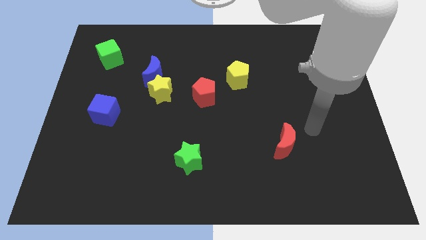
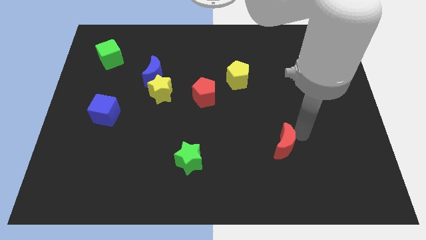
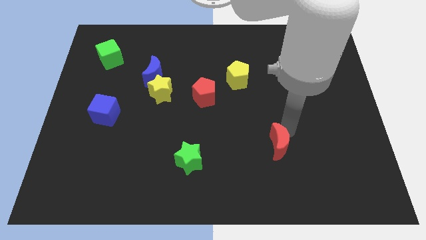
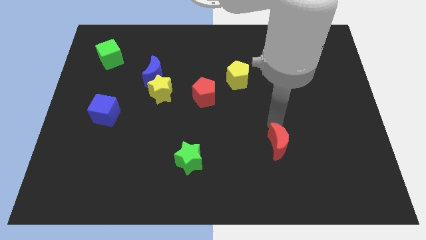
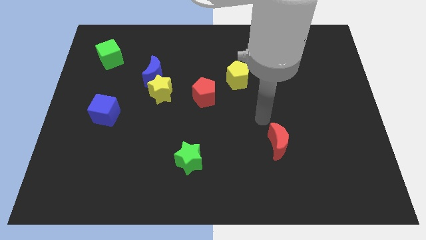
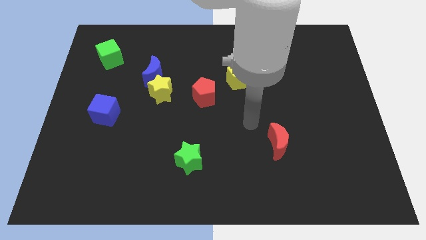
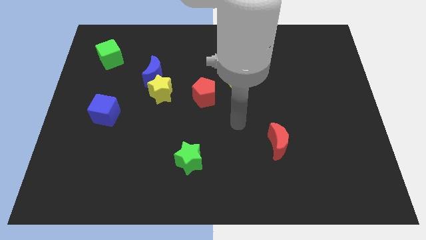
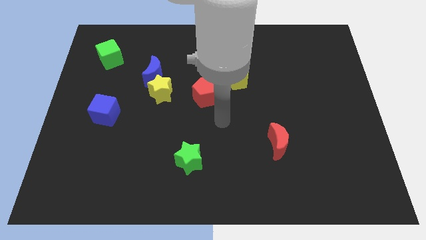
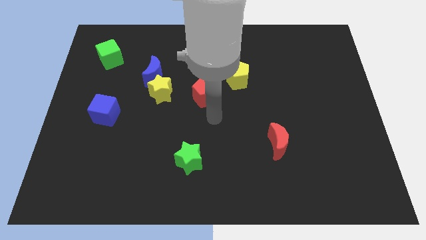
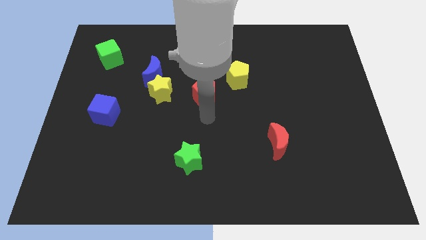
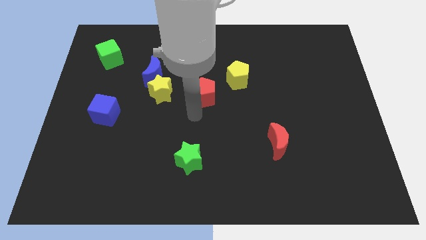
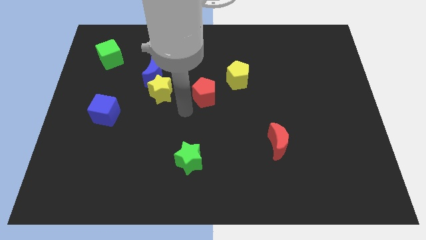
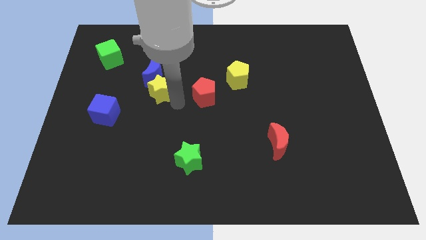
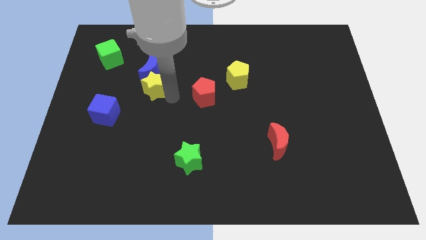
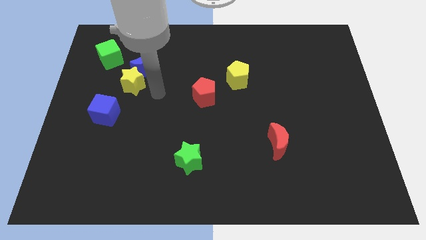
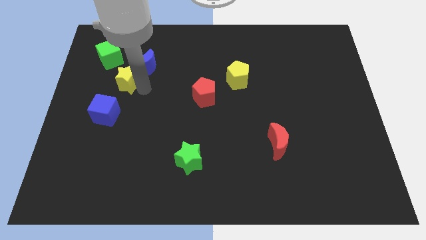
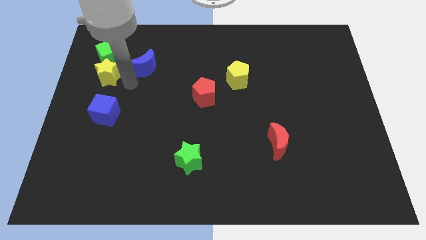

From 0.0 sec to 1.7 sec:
separate the blue moon from the yellow star

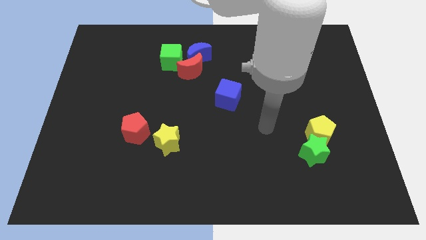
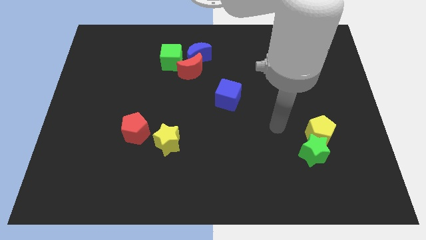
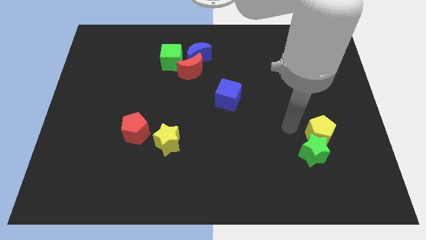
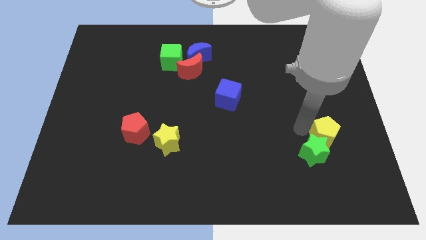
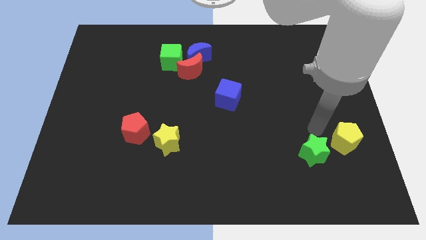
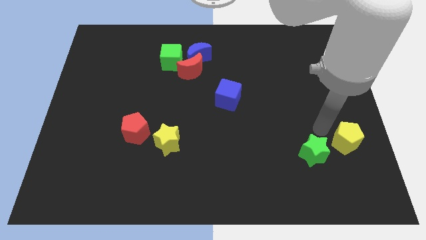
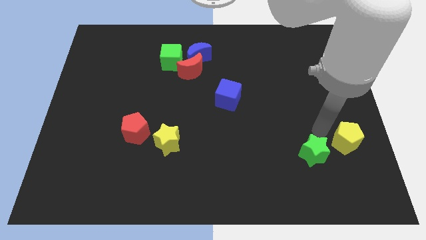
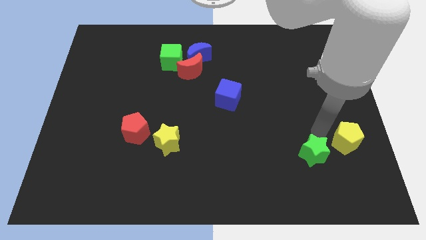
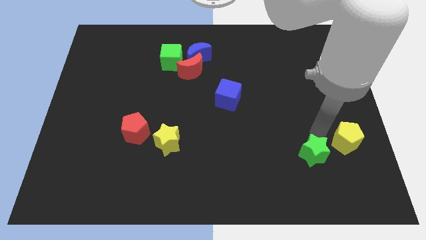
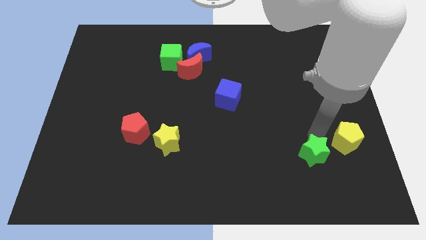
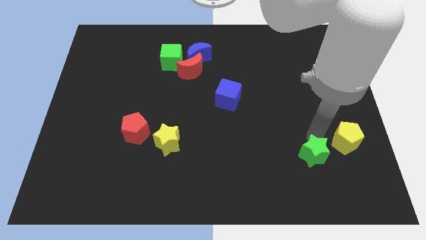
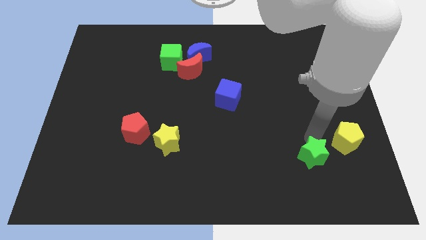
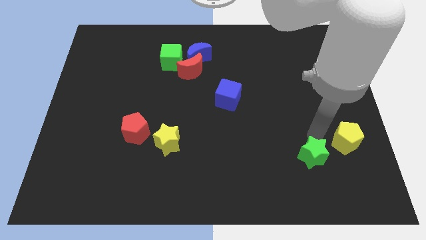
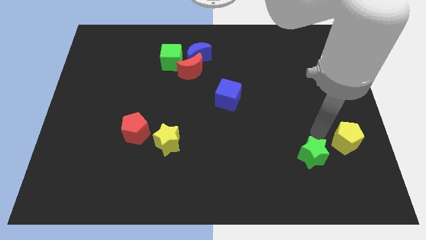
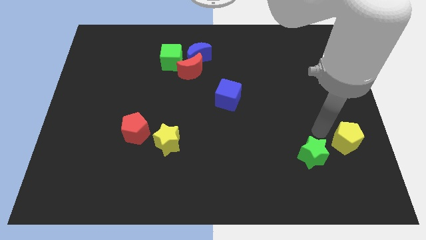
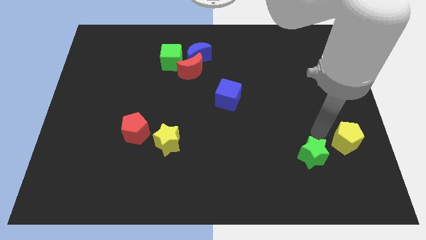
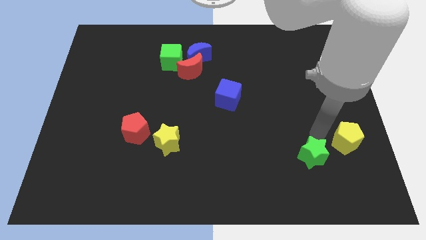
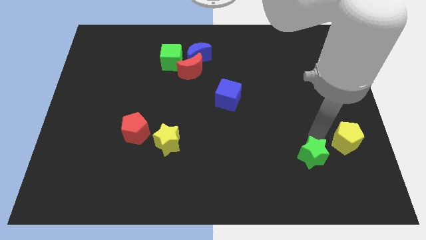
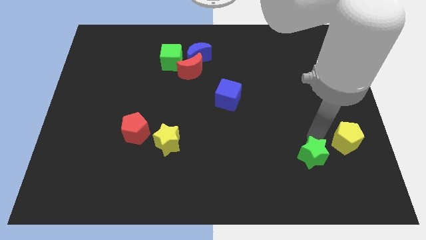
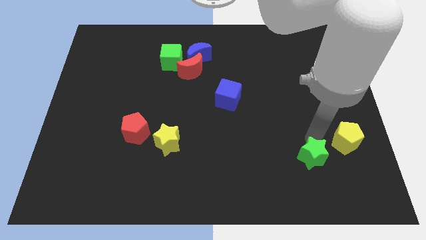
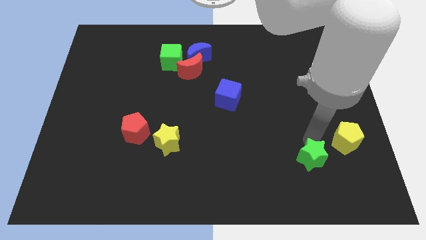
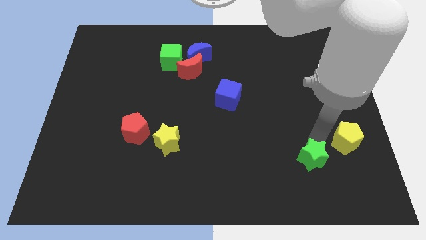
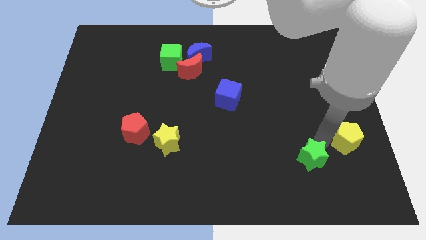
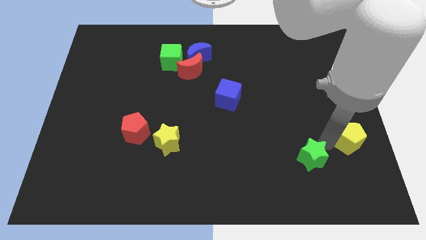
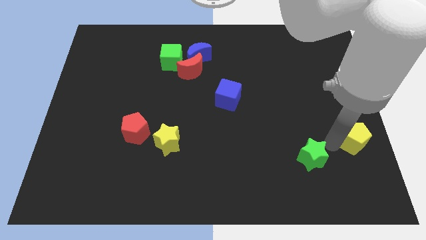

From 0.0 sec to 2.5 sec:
pull the green star apart from the yellow pentagon

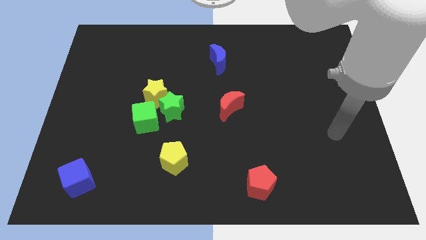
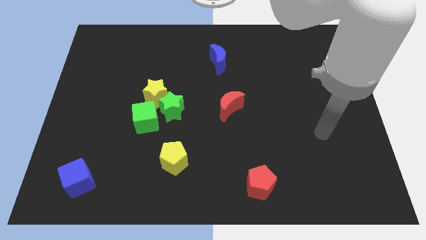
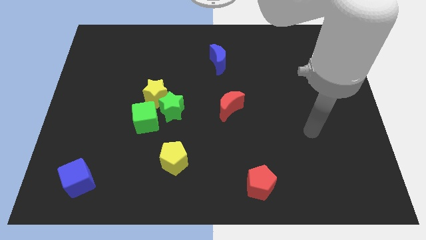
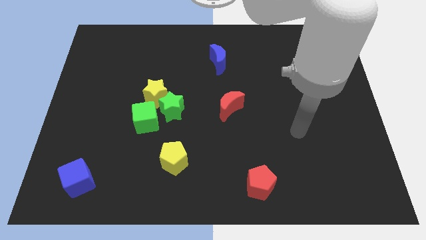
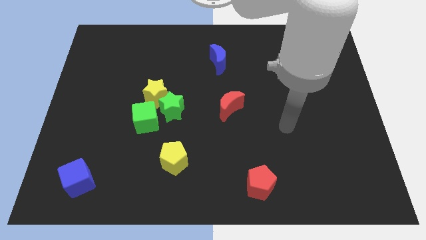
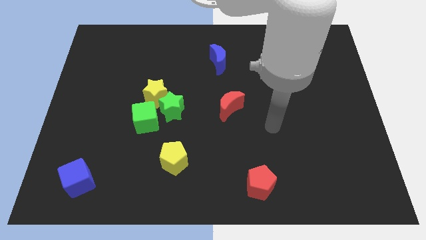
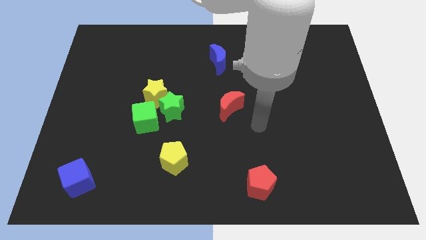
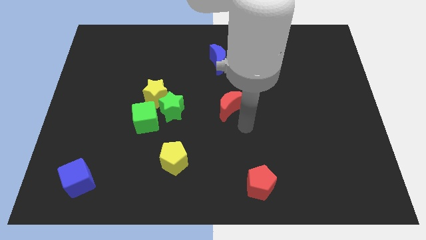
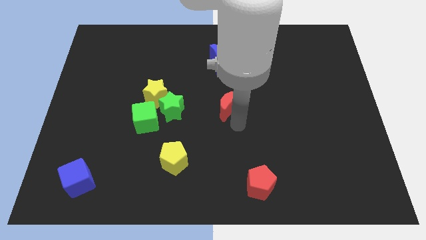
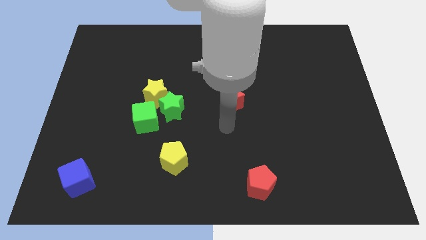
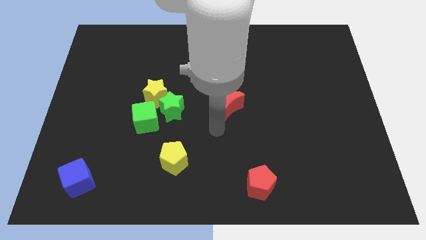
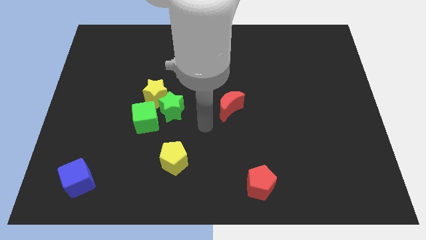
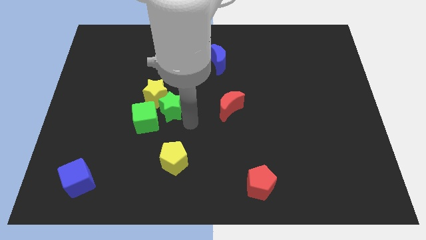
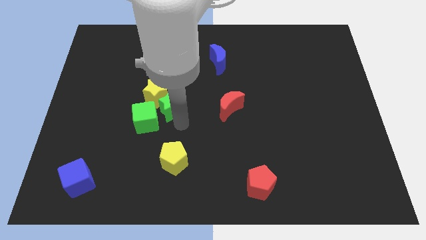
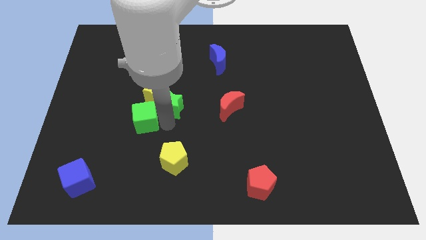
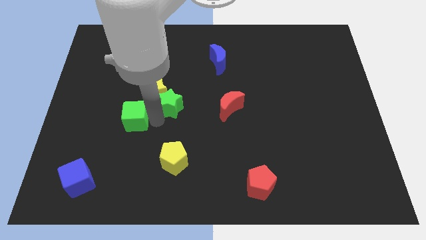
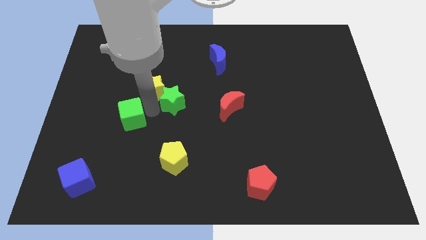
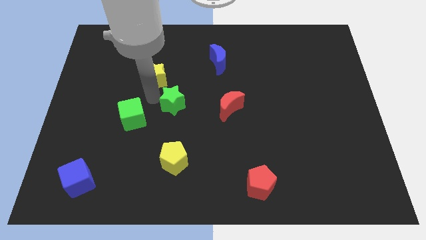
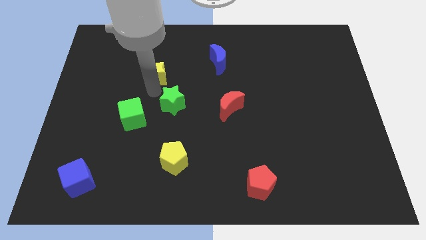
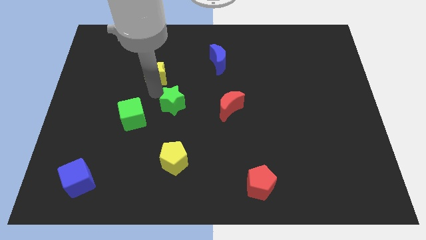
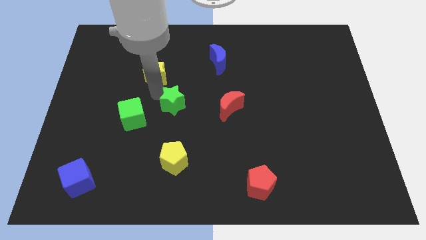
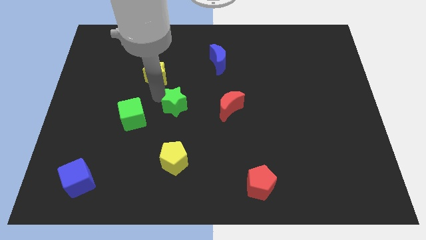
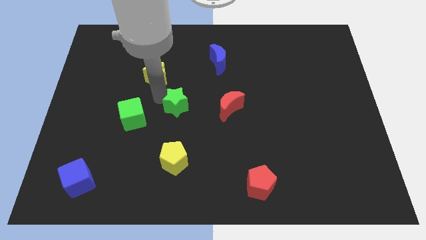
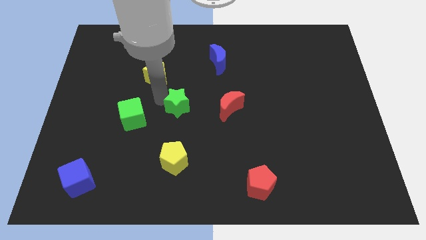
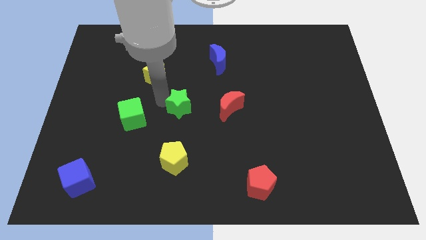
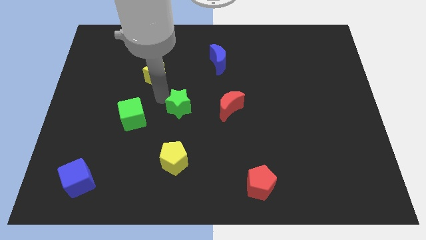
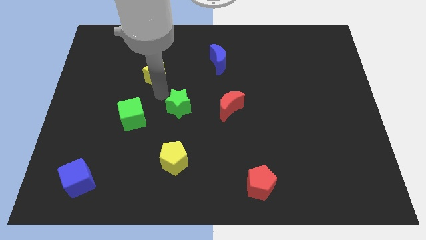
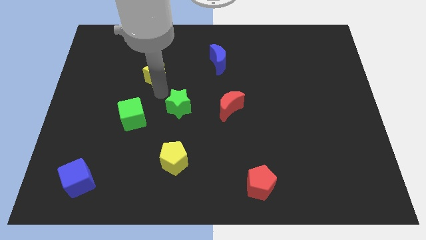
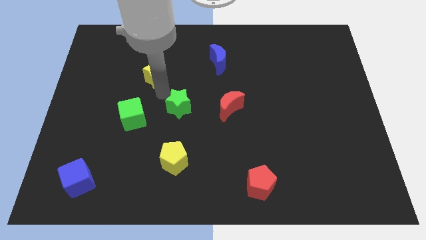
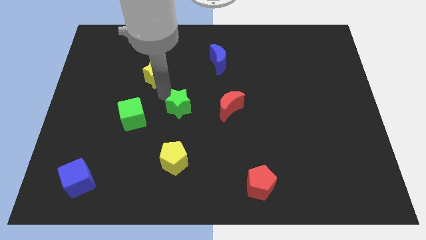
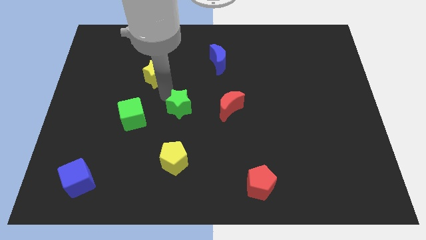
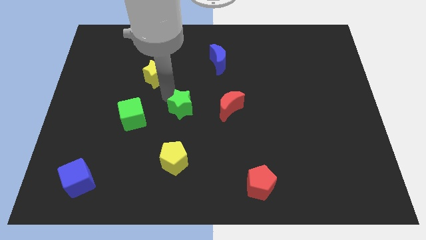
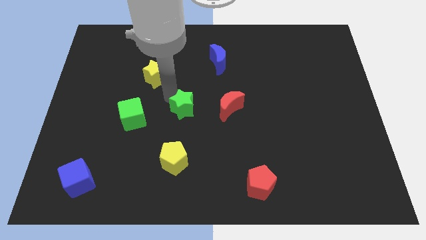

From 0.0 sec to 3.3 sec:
separate the green star from the yellow star and green cube

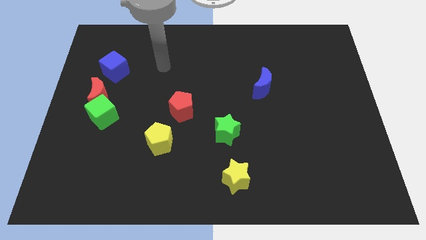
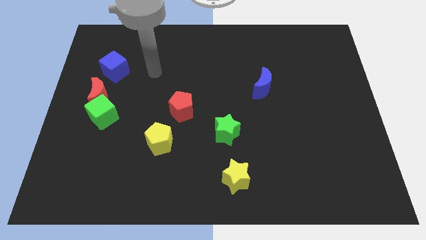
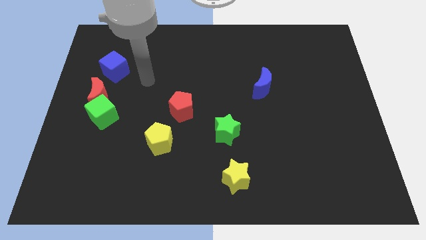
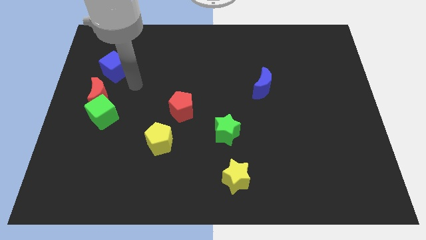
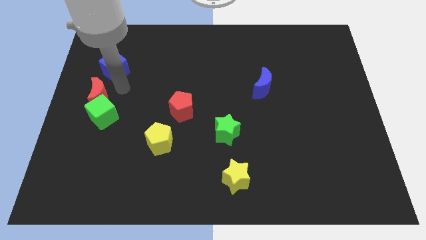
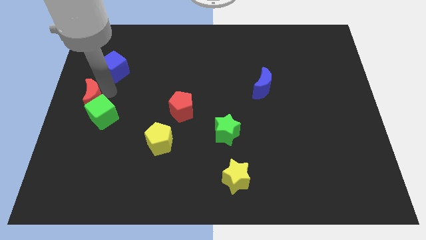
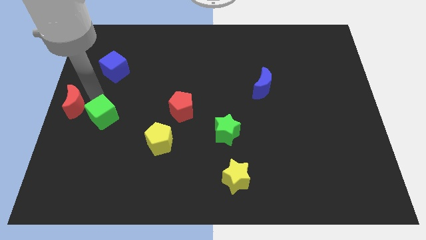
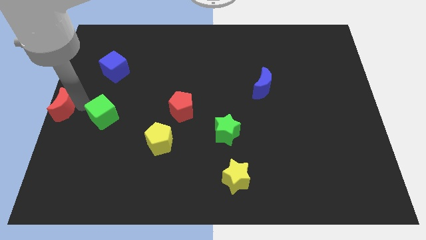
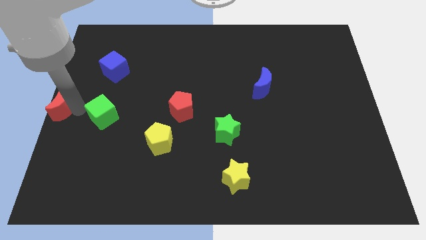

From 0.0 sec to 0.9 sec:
separate the green cube from the red moon

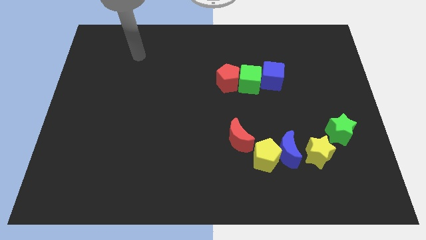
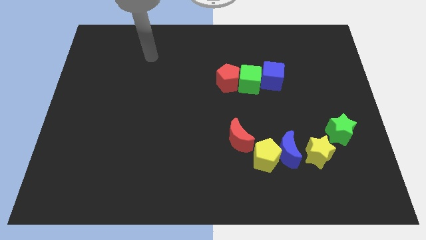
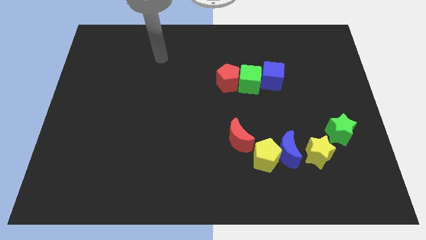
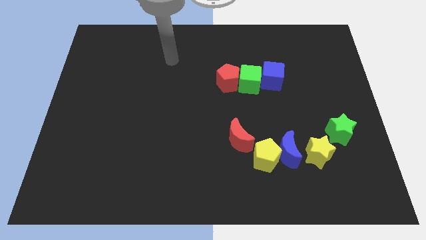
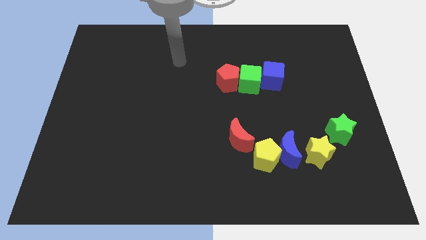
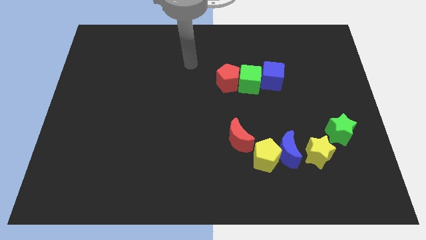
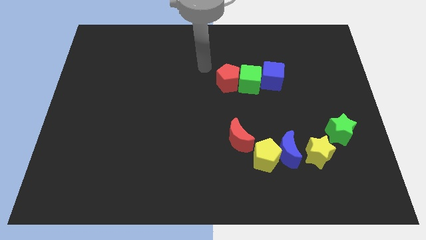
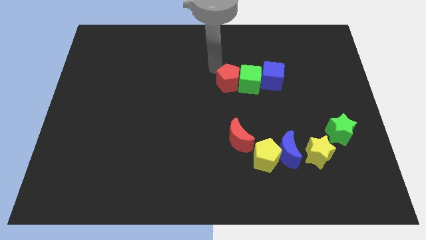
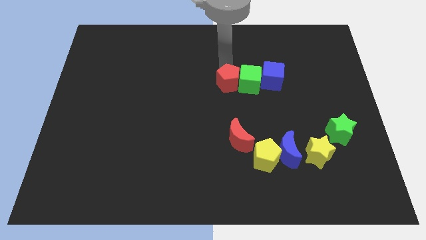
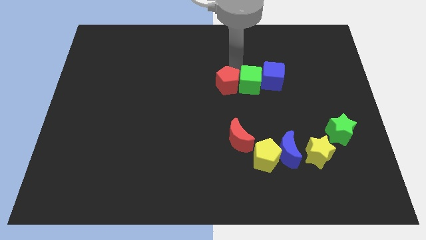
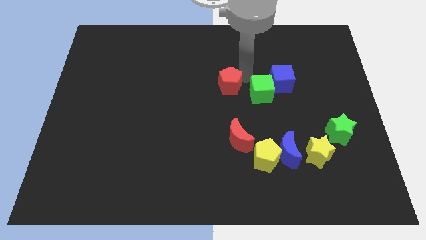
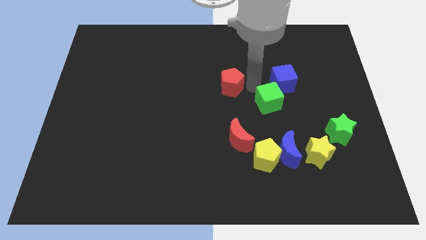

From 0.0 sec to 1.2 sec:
pull the red pentagon apart from the green cube
